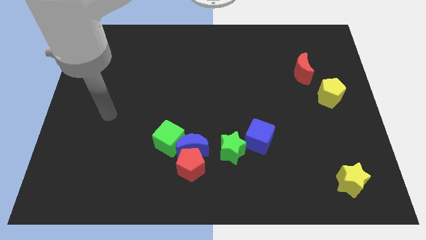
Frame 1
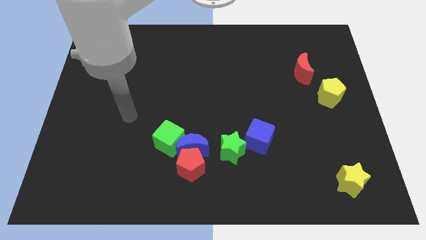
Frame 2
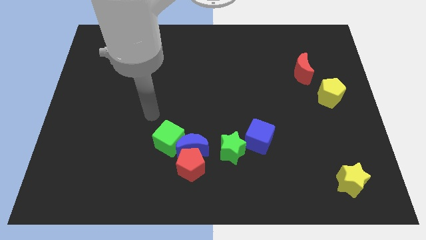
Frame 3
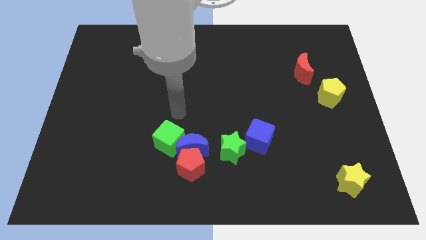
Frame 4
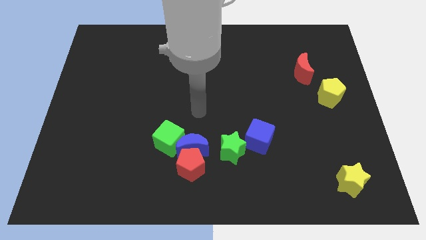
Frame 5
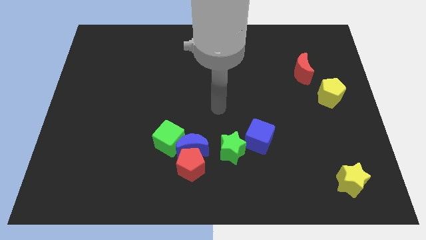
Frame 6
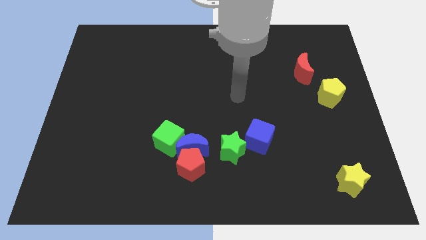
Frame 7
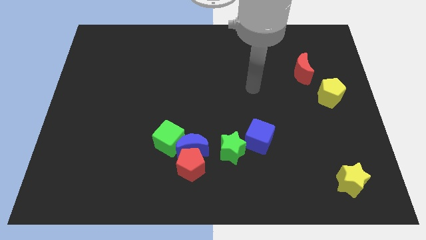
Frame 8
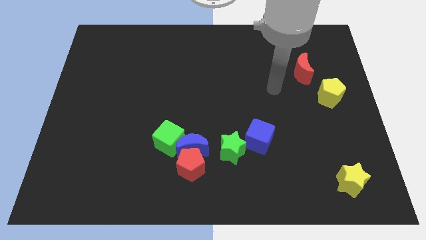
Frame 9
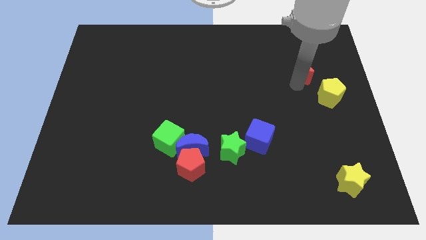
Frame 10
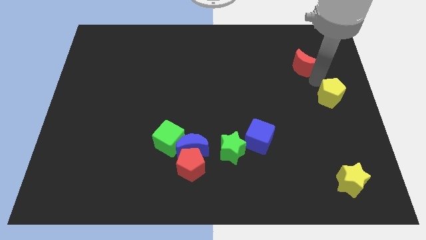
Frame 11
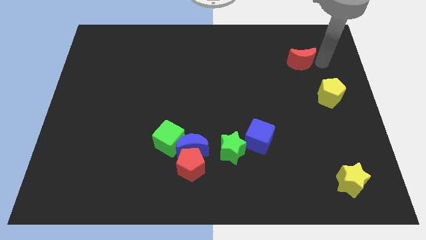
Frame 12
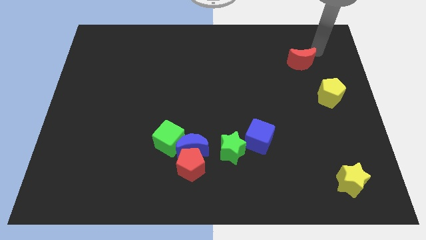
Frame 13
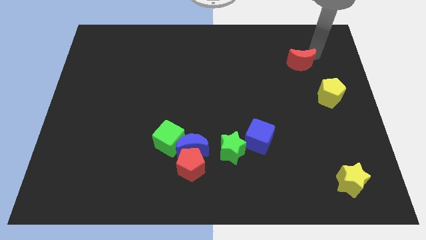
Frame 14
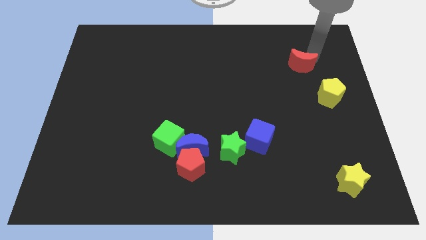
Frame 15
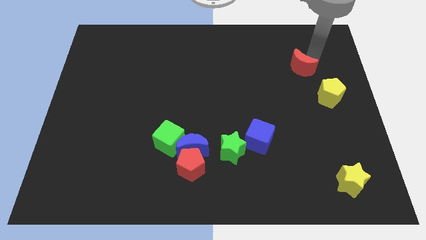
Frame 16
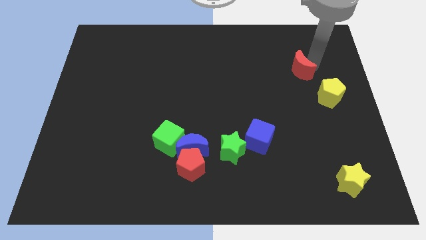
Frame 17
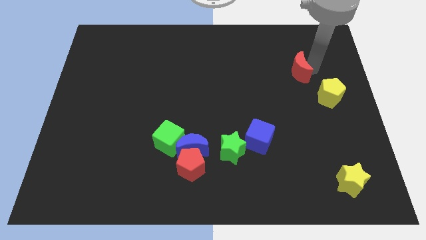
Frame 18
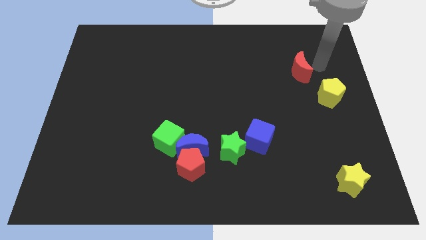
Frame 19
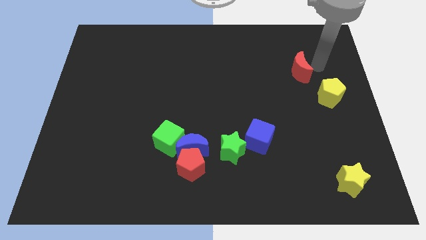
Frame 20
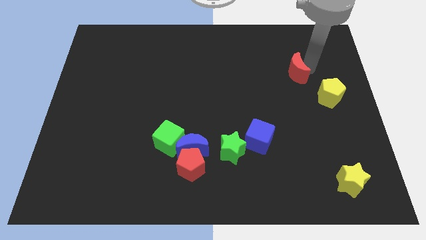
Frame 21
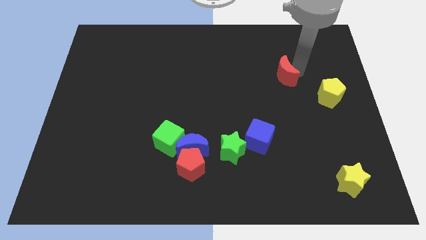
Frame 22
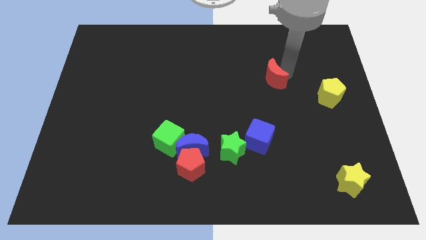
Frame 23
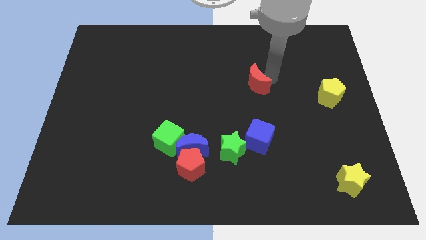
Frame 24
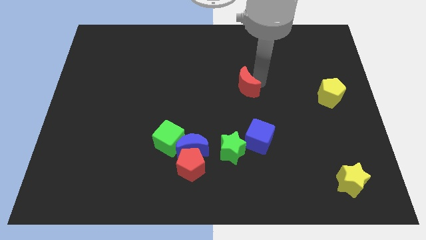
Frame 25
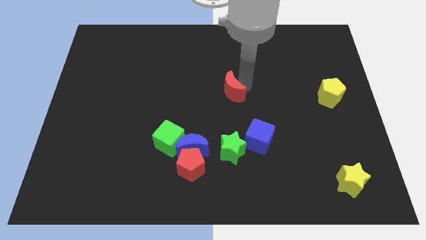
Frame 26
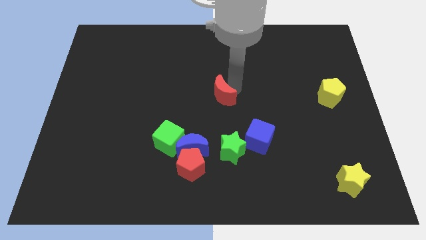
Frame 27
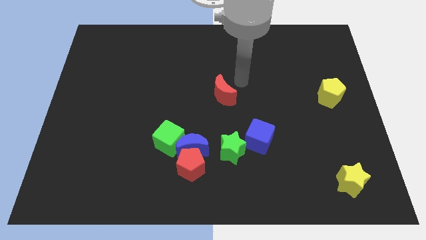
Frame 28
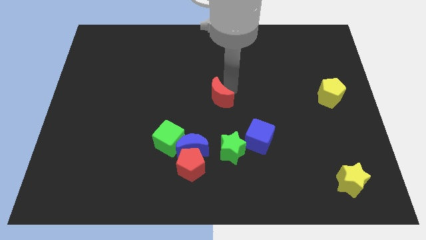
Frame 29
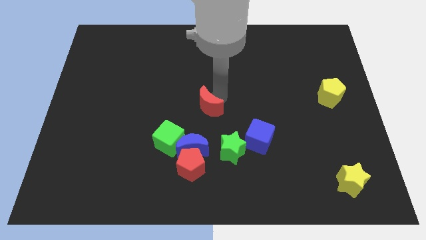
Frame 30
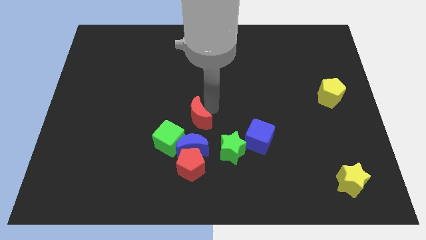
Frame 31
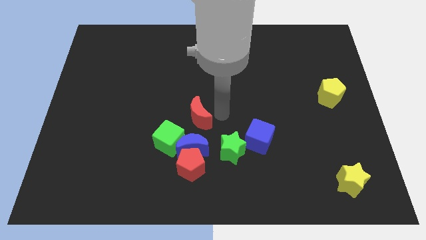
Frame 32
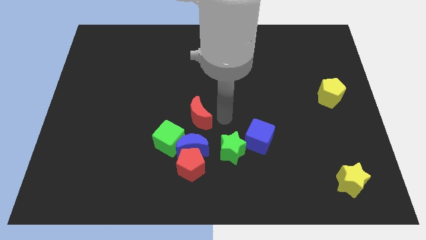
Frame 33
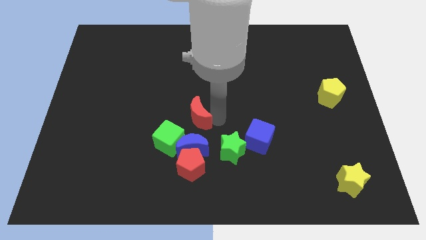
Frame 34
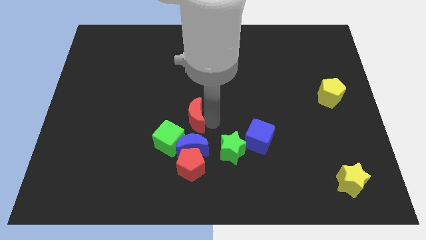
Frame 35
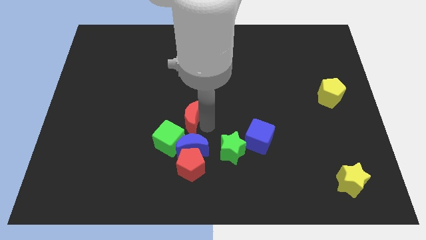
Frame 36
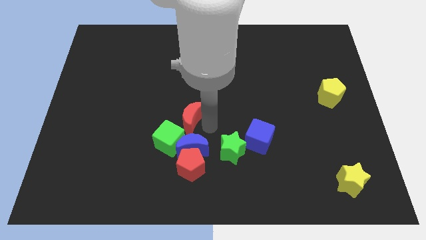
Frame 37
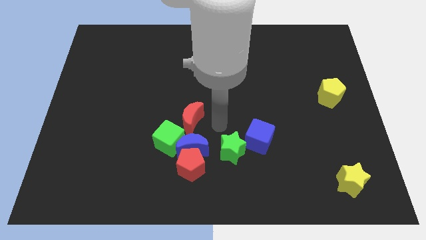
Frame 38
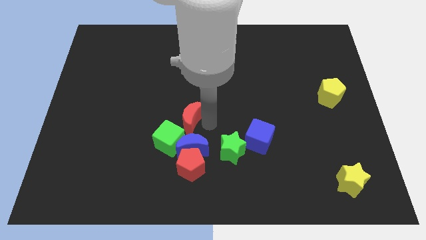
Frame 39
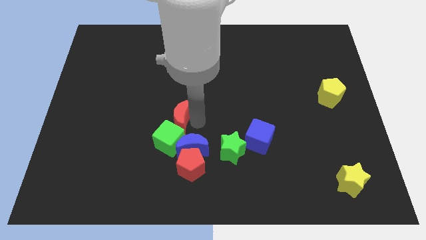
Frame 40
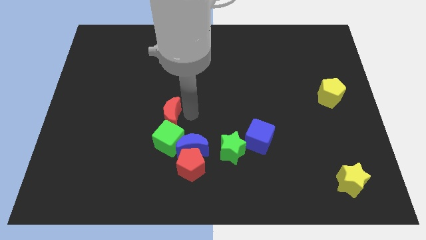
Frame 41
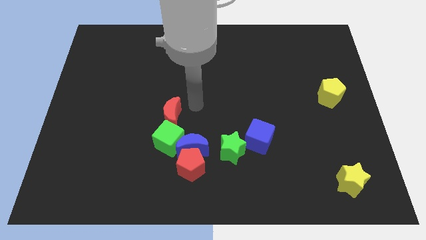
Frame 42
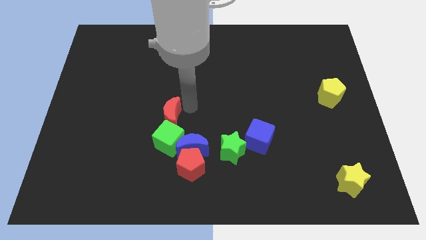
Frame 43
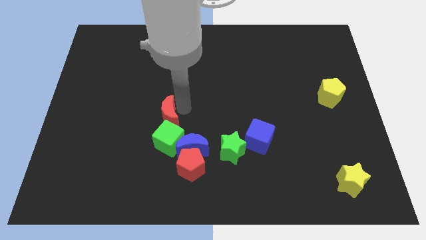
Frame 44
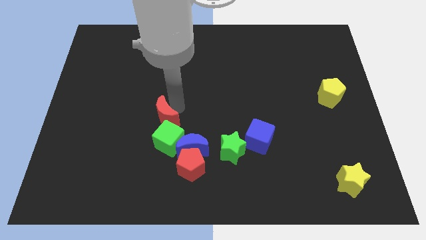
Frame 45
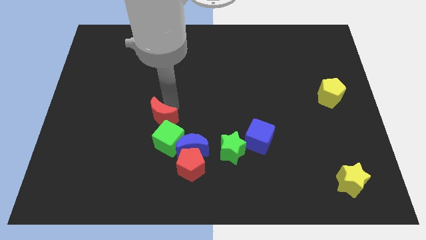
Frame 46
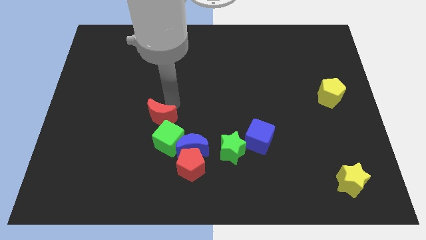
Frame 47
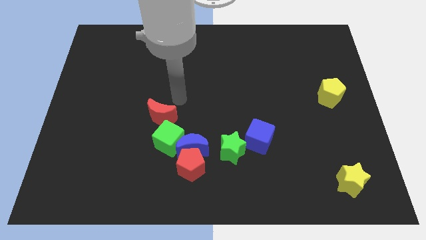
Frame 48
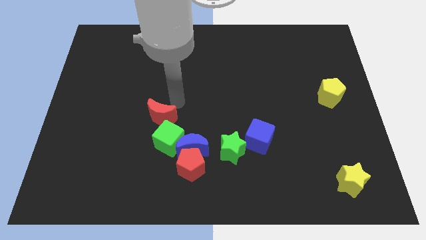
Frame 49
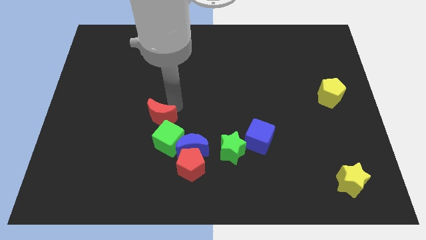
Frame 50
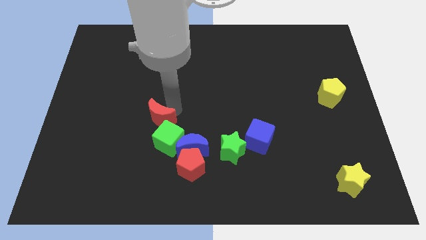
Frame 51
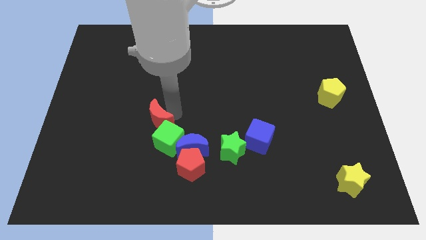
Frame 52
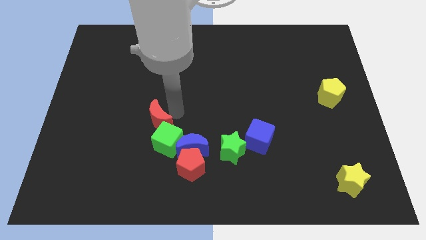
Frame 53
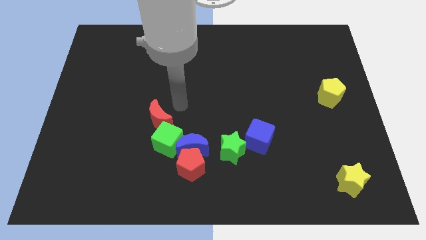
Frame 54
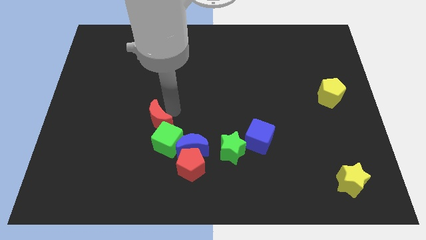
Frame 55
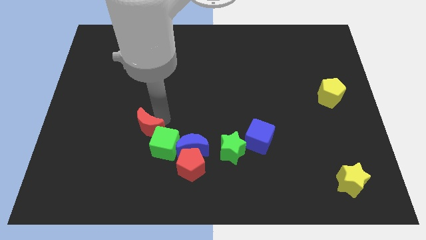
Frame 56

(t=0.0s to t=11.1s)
slide the red moon left of the green cube

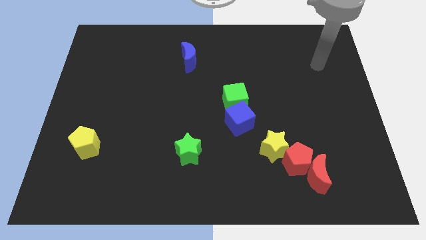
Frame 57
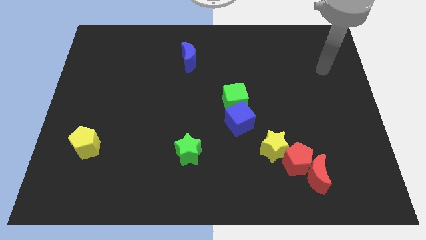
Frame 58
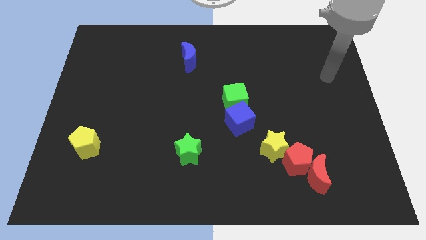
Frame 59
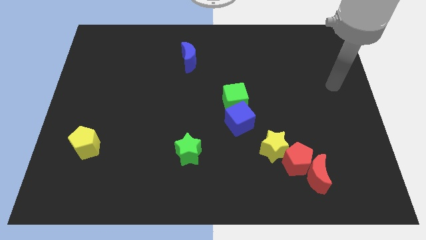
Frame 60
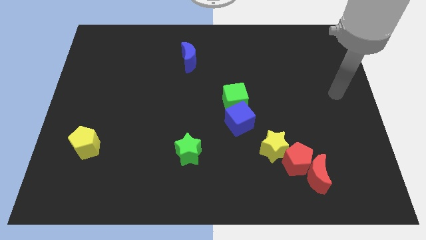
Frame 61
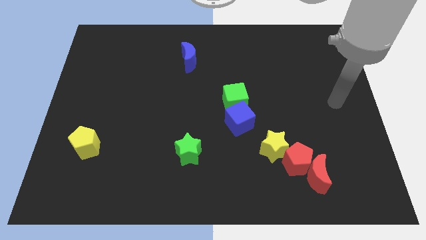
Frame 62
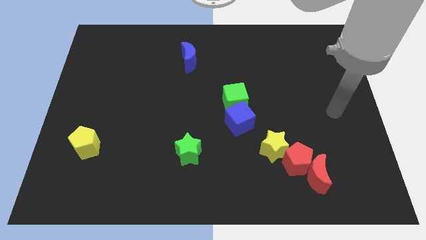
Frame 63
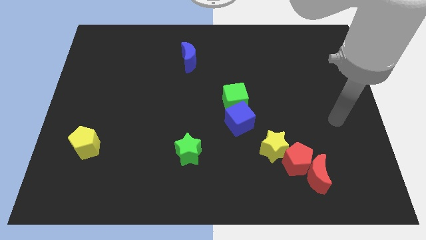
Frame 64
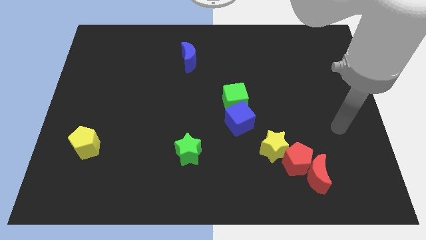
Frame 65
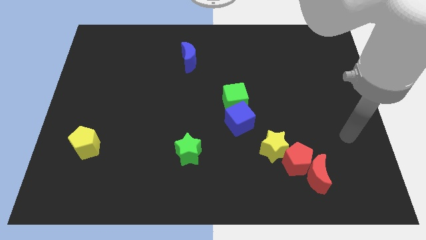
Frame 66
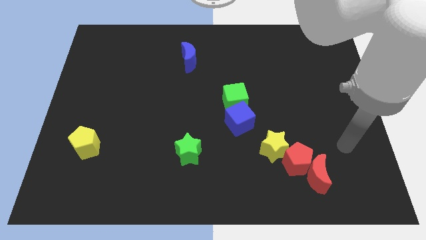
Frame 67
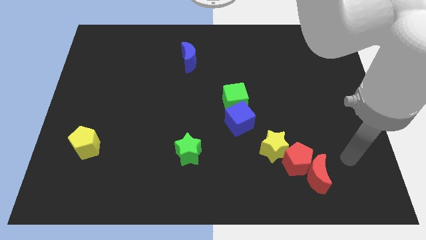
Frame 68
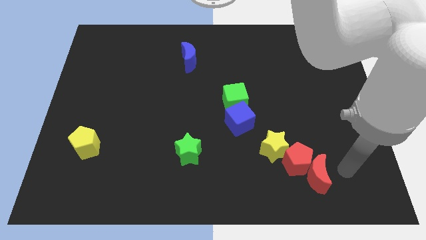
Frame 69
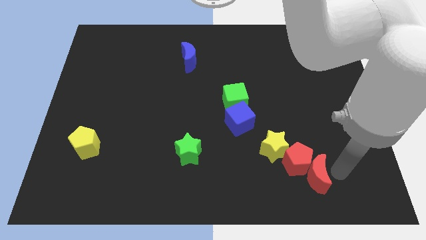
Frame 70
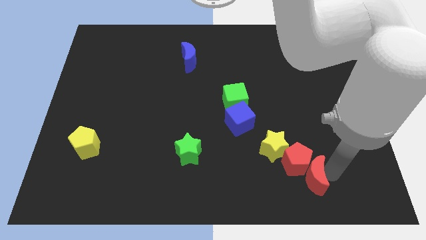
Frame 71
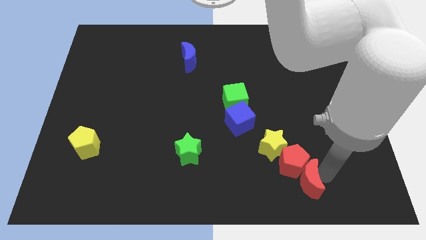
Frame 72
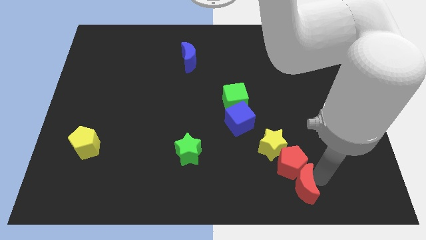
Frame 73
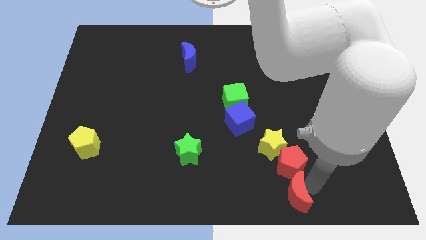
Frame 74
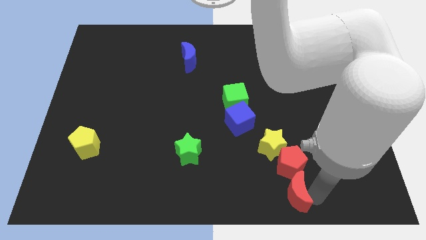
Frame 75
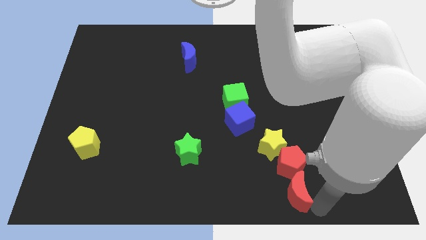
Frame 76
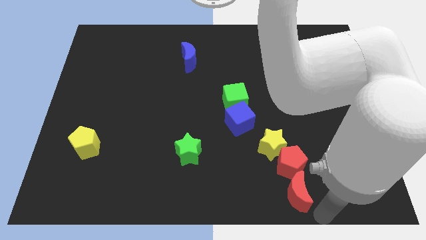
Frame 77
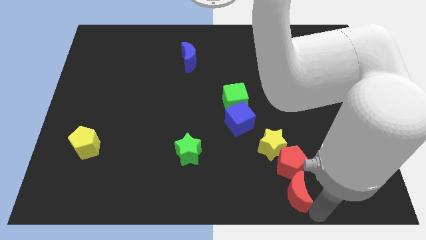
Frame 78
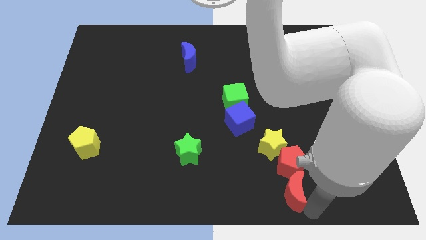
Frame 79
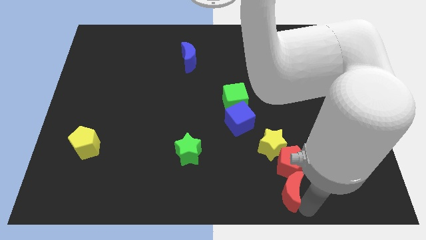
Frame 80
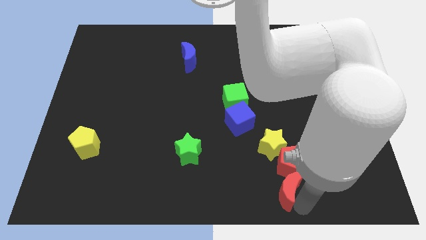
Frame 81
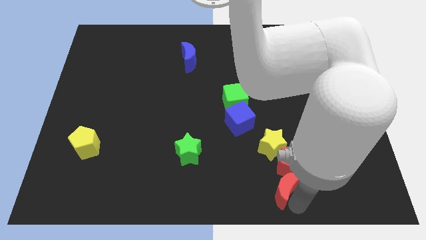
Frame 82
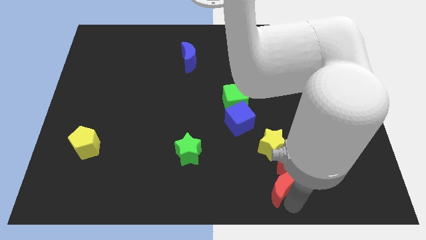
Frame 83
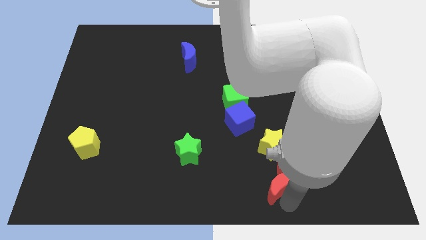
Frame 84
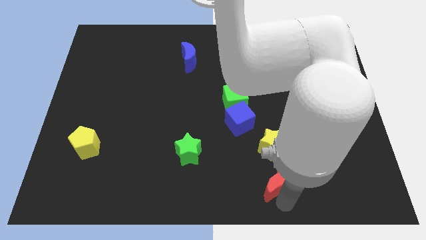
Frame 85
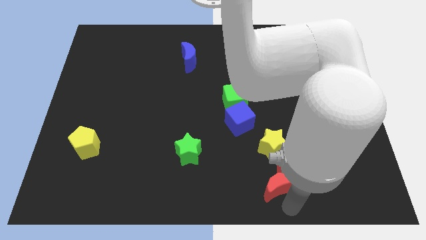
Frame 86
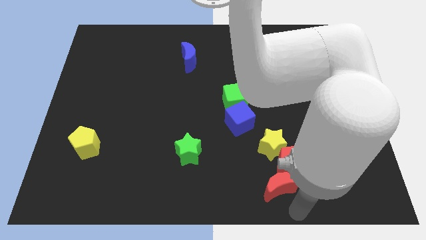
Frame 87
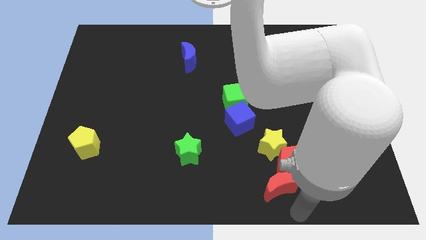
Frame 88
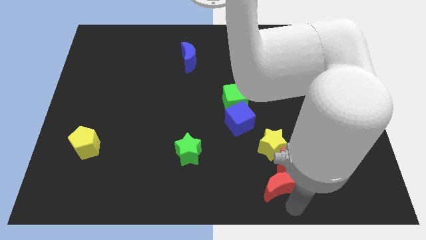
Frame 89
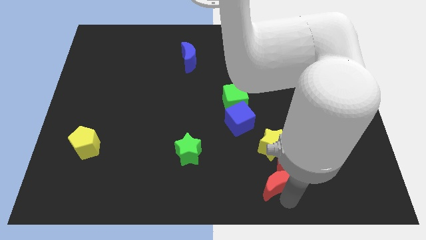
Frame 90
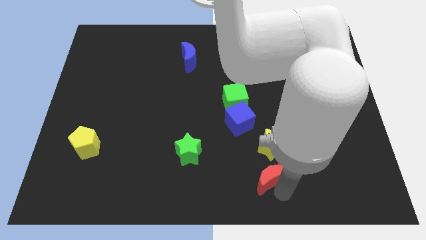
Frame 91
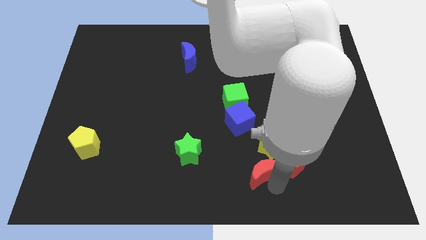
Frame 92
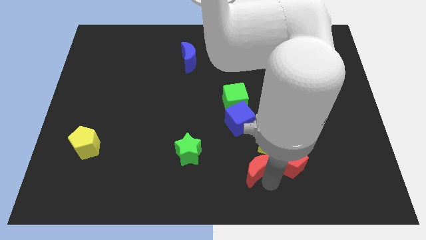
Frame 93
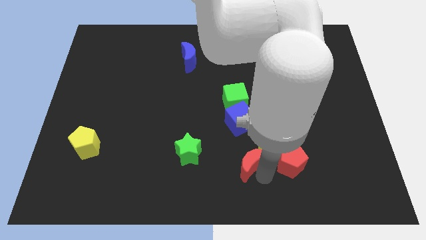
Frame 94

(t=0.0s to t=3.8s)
slide the red moon to the right side of the green star
